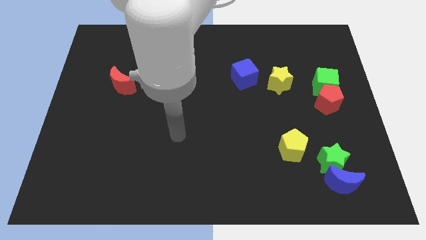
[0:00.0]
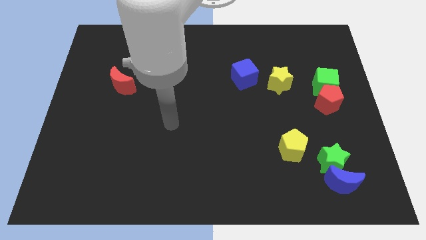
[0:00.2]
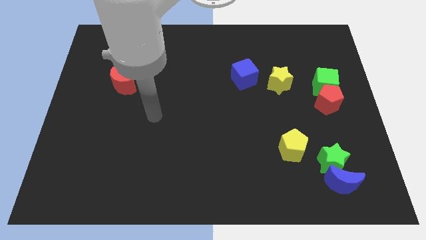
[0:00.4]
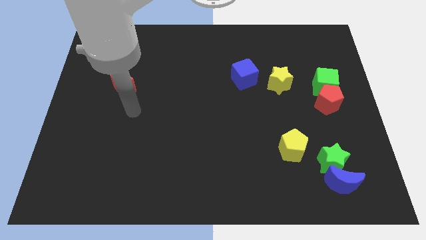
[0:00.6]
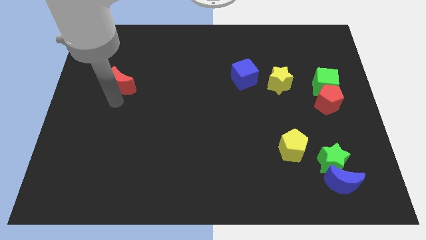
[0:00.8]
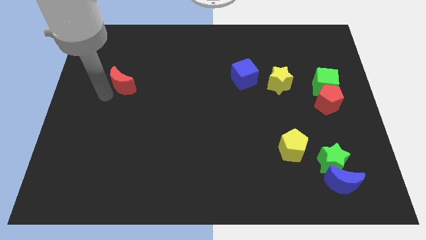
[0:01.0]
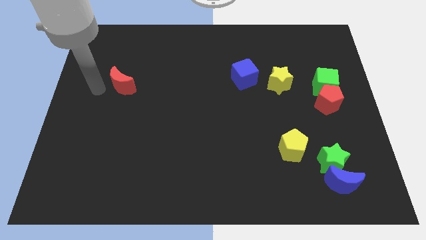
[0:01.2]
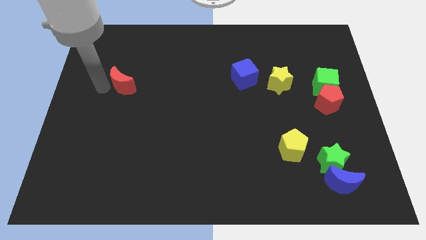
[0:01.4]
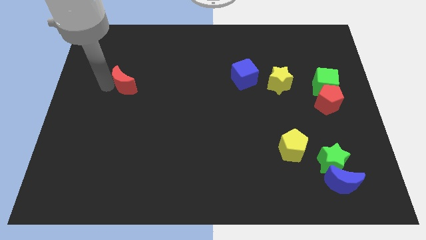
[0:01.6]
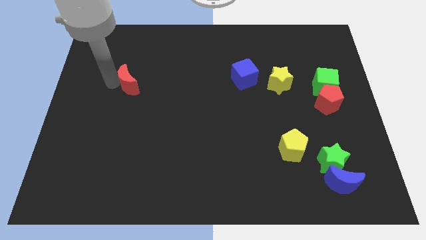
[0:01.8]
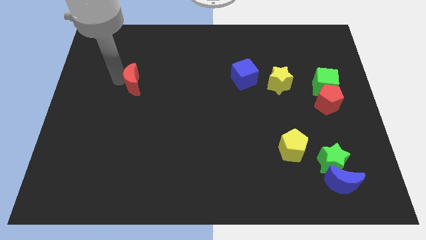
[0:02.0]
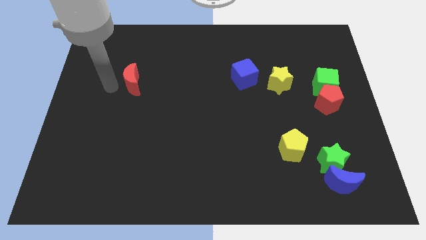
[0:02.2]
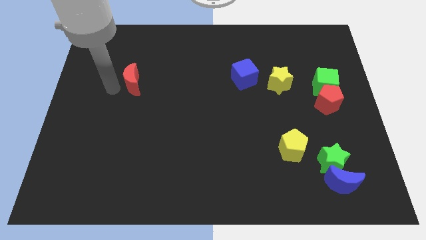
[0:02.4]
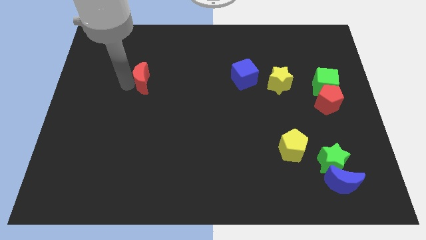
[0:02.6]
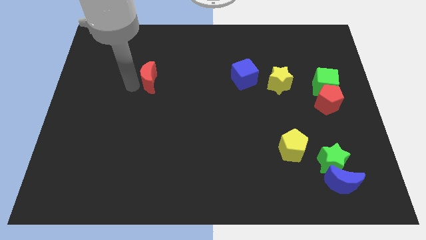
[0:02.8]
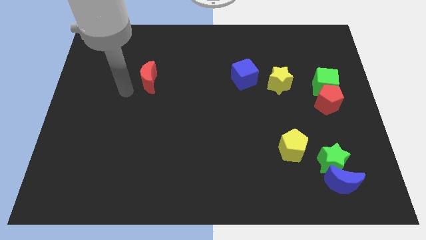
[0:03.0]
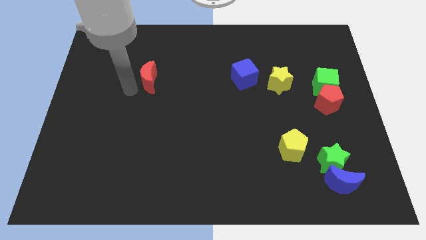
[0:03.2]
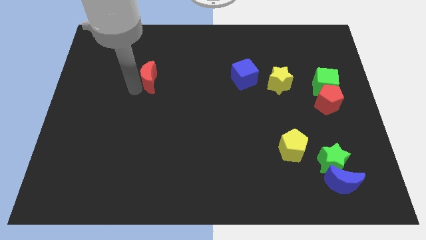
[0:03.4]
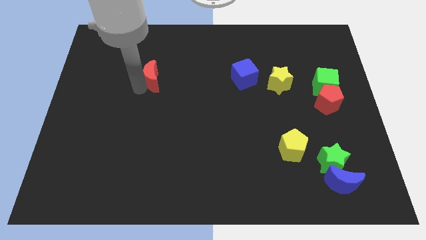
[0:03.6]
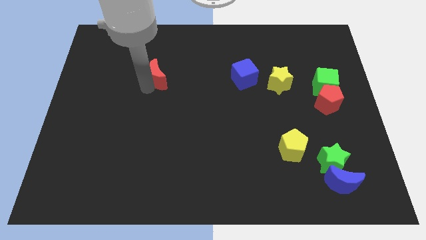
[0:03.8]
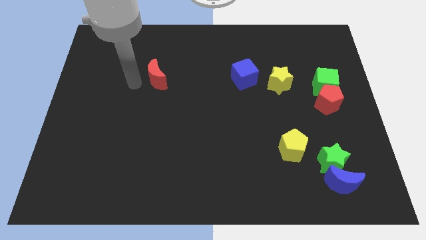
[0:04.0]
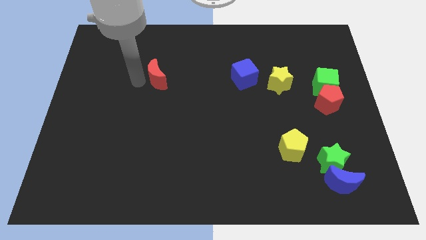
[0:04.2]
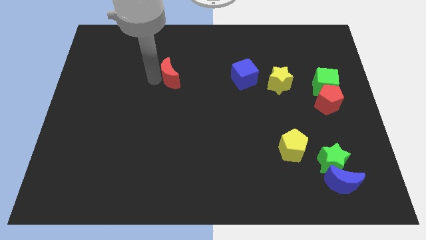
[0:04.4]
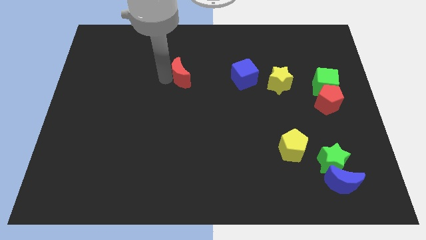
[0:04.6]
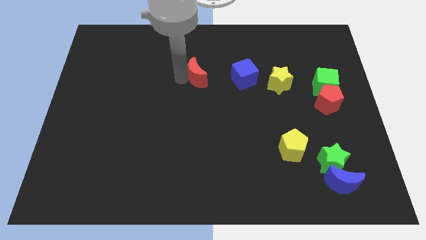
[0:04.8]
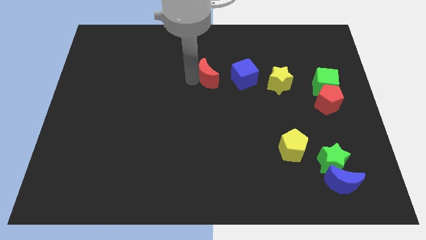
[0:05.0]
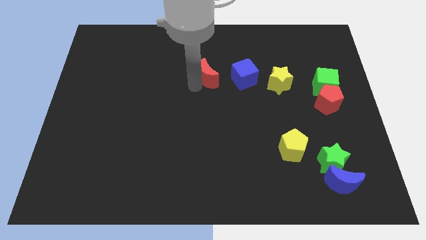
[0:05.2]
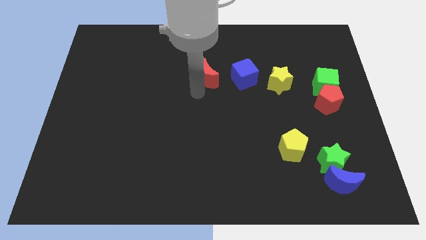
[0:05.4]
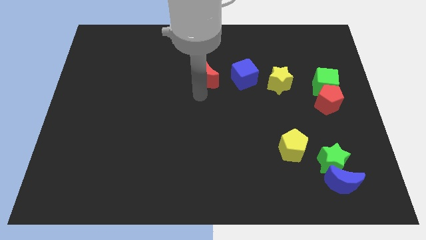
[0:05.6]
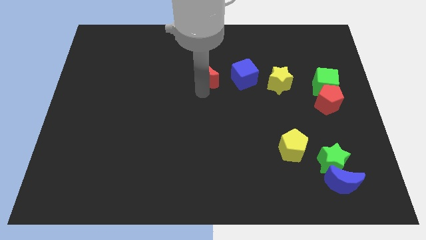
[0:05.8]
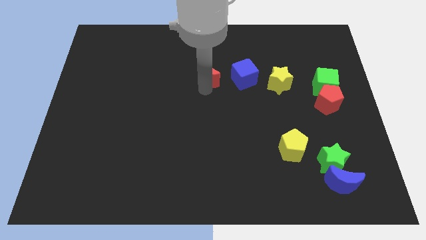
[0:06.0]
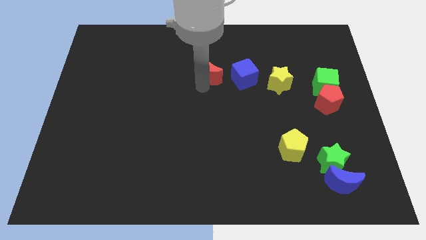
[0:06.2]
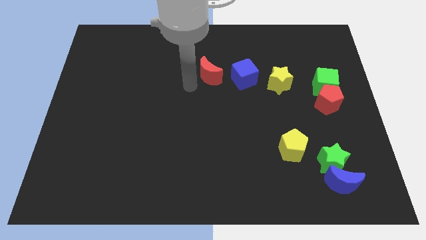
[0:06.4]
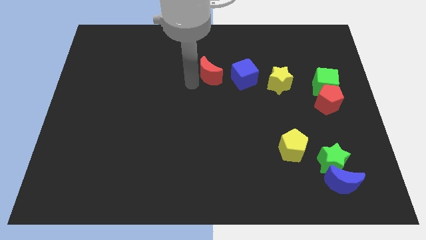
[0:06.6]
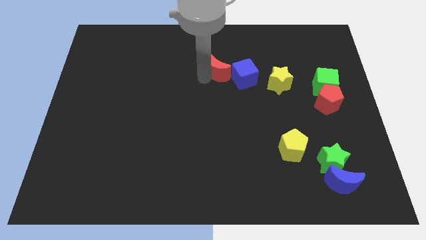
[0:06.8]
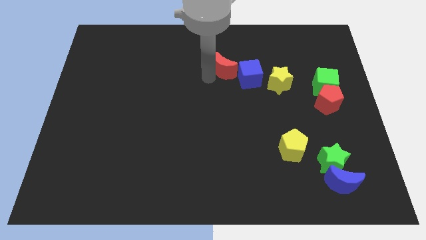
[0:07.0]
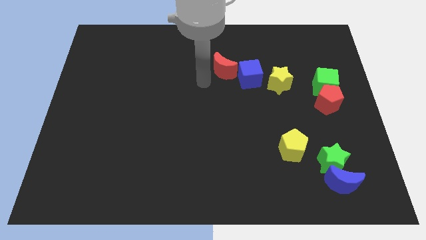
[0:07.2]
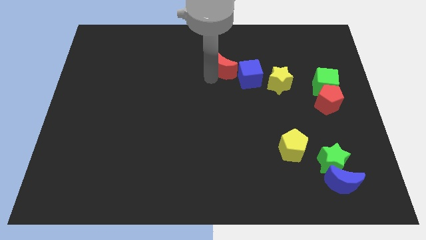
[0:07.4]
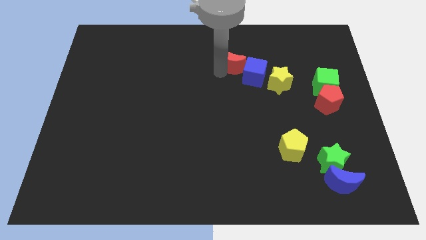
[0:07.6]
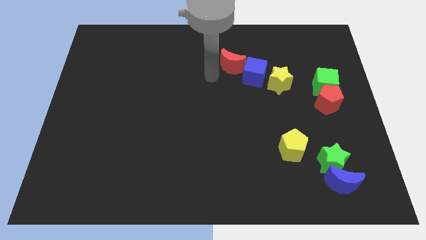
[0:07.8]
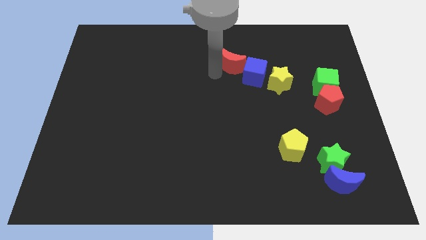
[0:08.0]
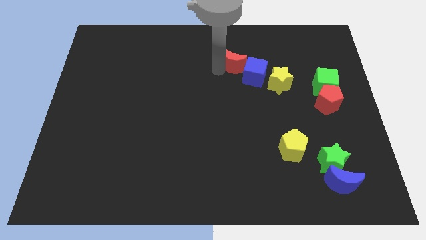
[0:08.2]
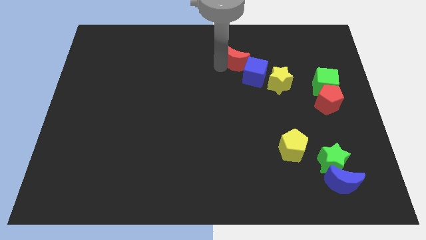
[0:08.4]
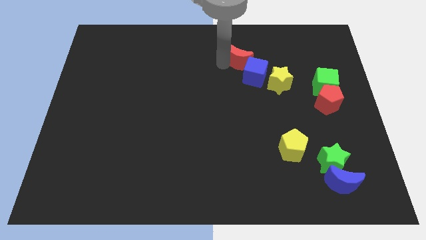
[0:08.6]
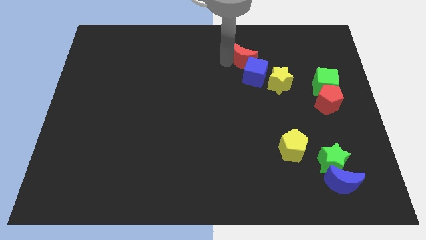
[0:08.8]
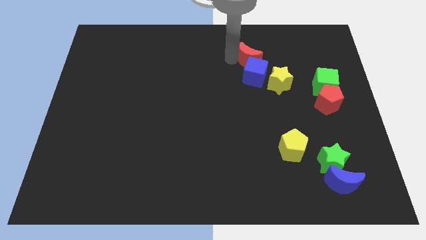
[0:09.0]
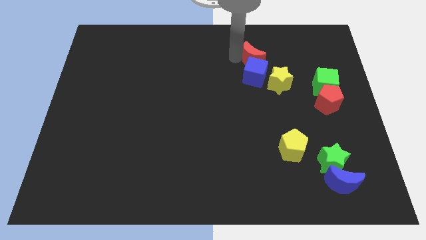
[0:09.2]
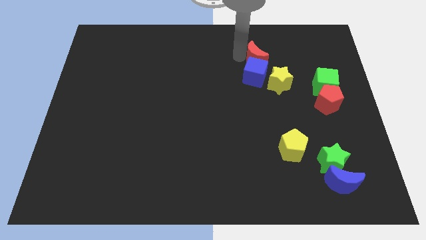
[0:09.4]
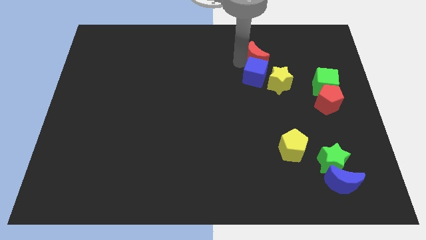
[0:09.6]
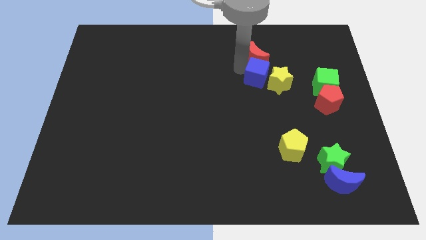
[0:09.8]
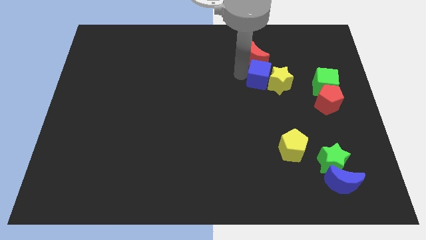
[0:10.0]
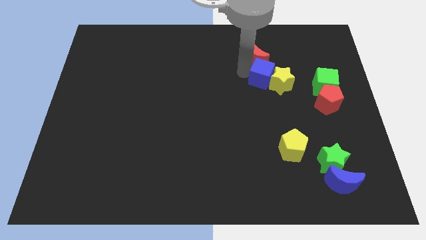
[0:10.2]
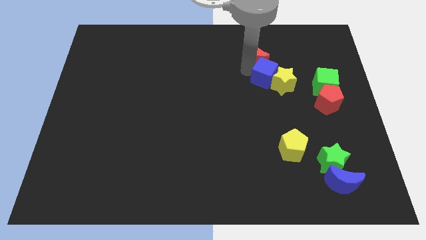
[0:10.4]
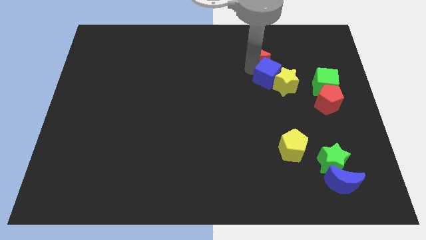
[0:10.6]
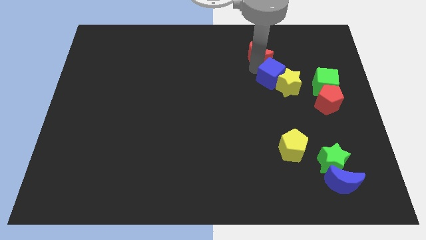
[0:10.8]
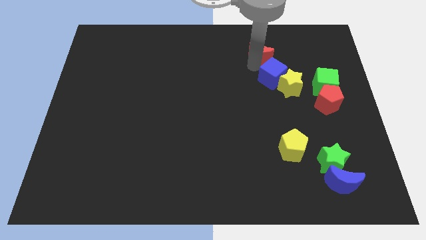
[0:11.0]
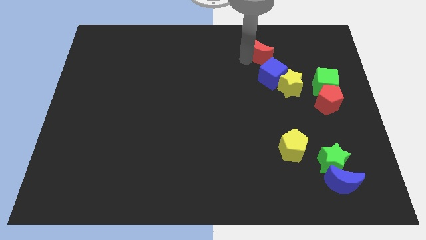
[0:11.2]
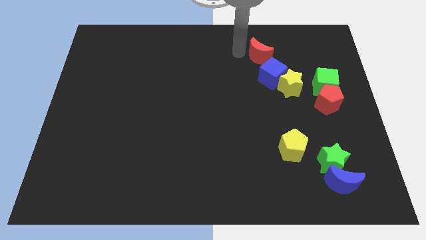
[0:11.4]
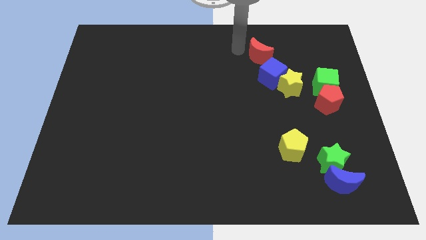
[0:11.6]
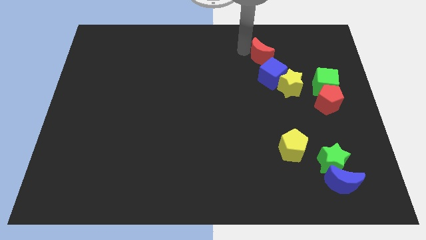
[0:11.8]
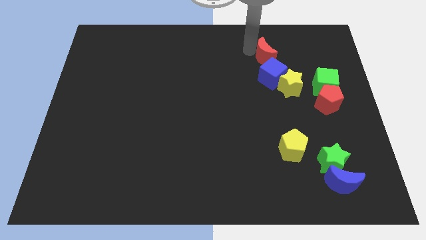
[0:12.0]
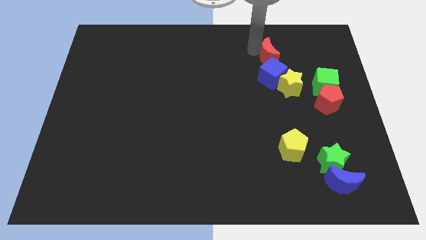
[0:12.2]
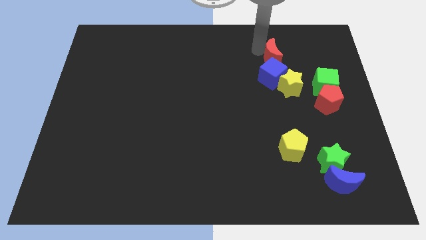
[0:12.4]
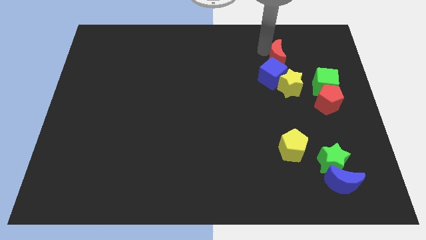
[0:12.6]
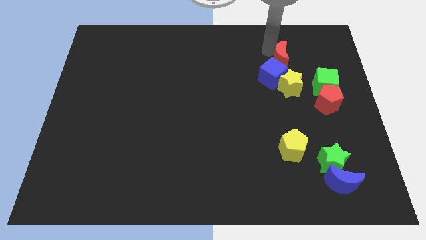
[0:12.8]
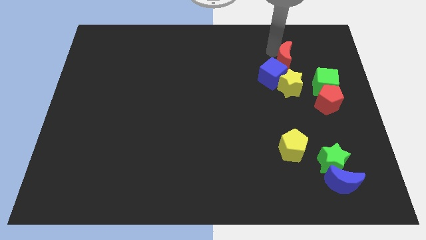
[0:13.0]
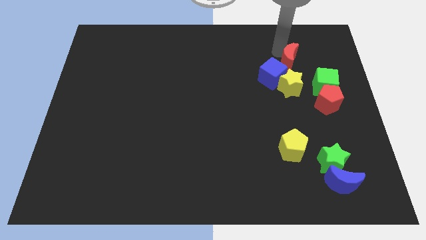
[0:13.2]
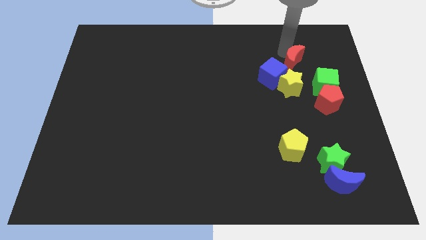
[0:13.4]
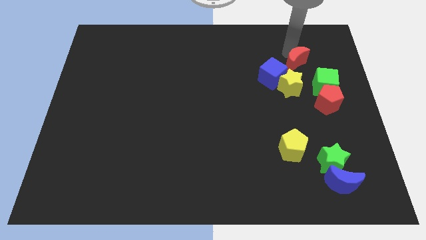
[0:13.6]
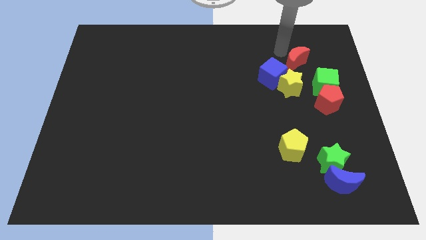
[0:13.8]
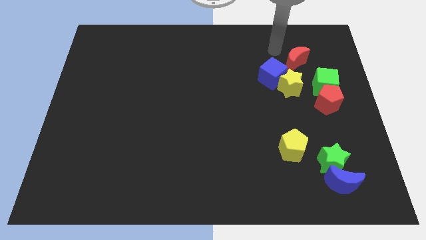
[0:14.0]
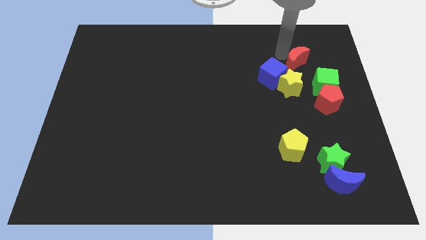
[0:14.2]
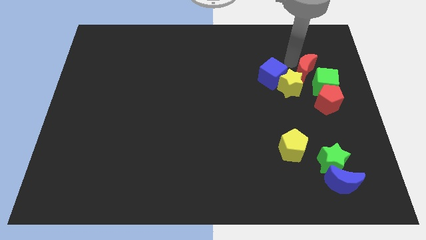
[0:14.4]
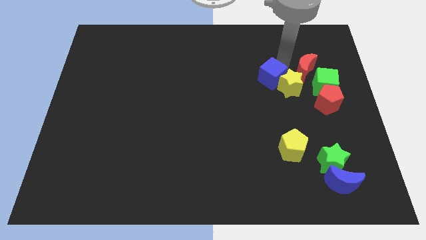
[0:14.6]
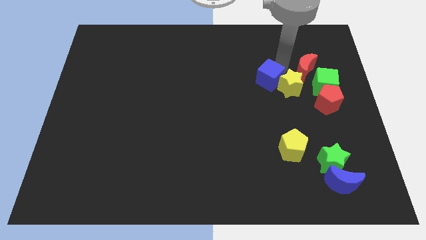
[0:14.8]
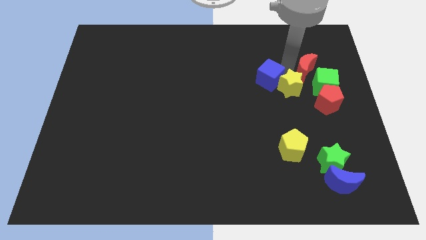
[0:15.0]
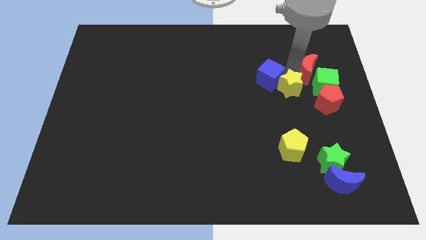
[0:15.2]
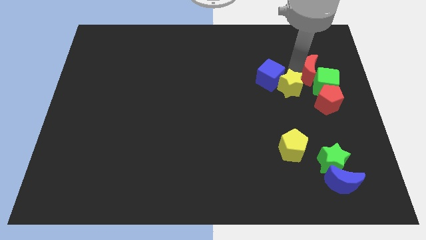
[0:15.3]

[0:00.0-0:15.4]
put the red moon right of the yellow star
